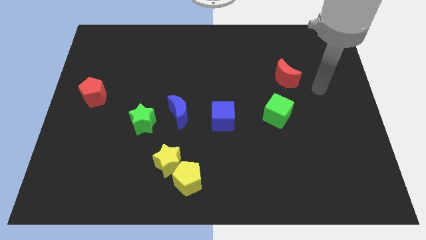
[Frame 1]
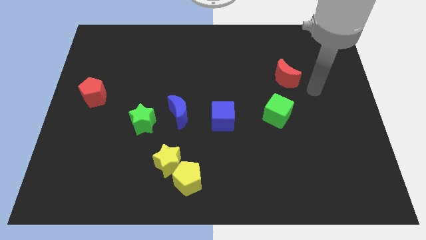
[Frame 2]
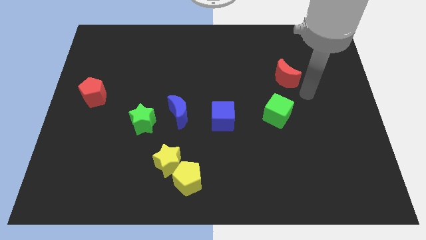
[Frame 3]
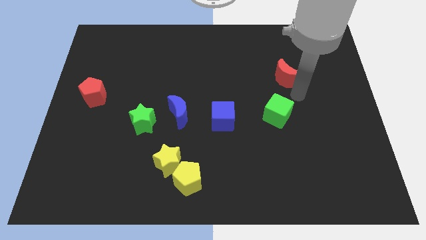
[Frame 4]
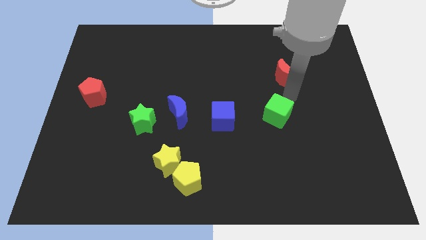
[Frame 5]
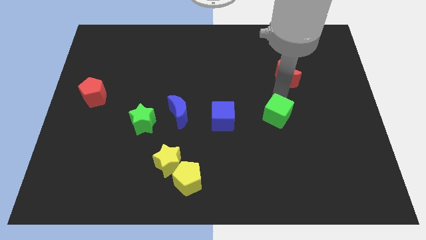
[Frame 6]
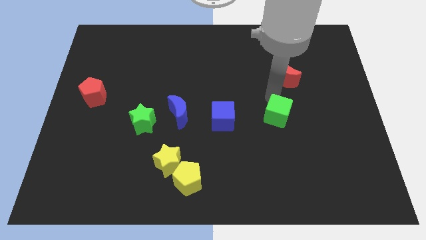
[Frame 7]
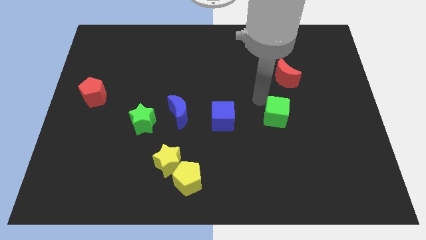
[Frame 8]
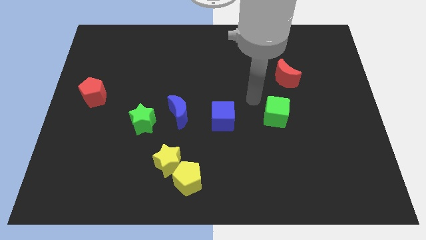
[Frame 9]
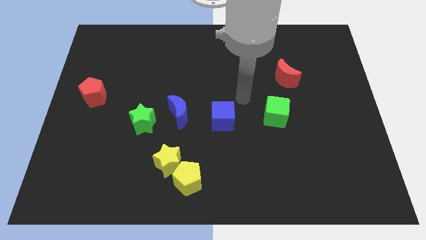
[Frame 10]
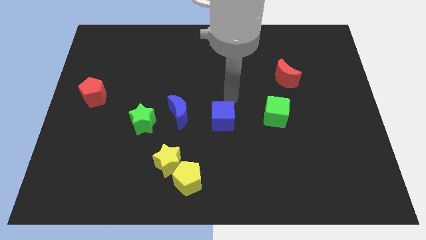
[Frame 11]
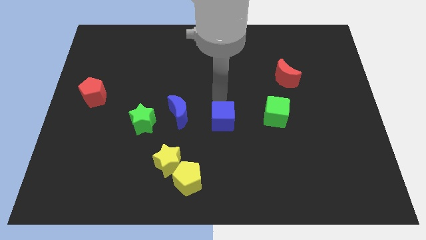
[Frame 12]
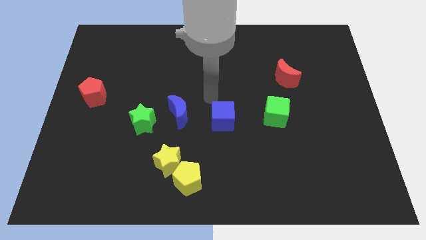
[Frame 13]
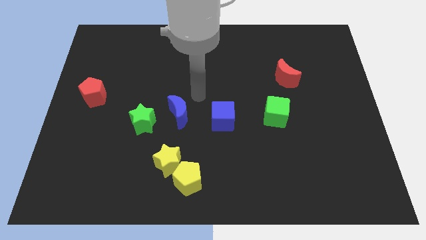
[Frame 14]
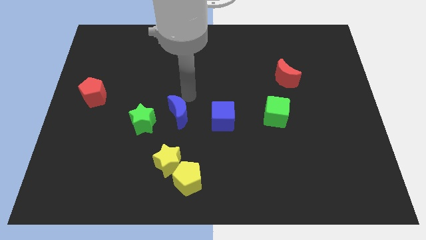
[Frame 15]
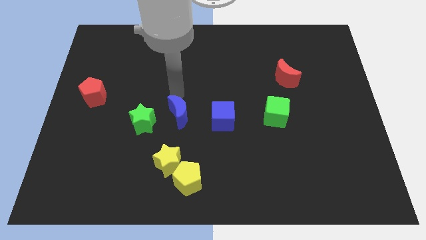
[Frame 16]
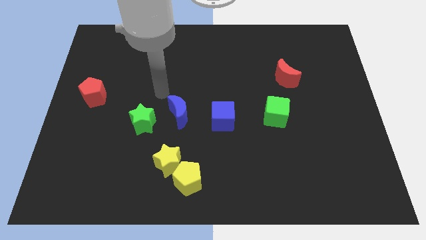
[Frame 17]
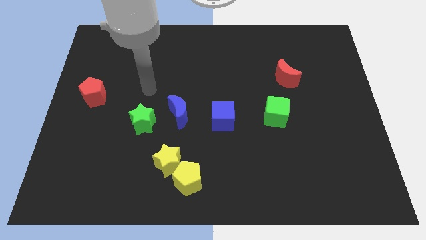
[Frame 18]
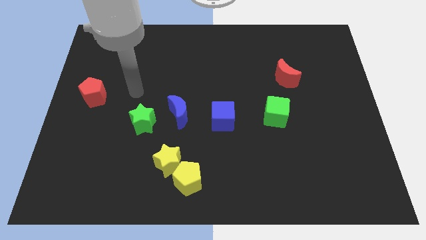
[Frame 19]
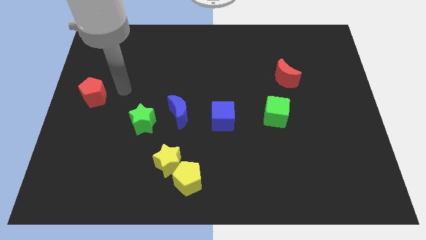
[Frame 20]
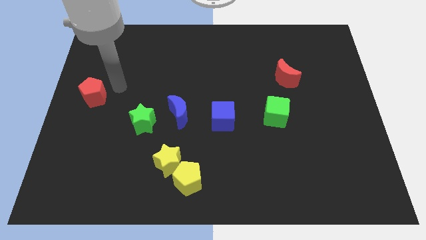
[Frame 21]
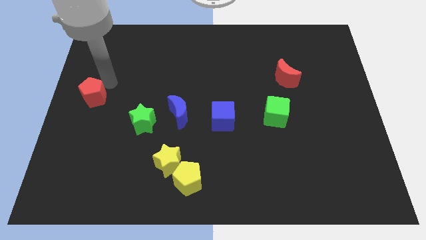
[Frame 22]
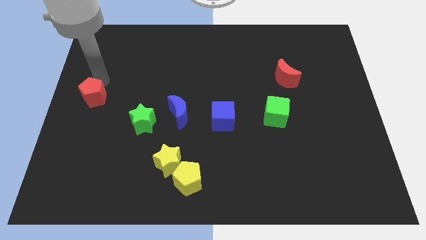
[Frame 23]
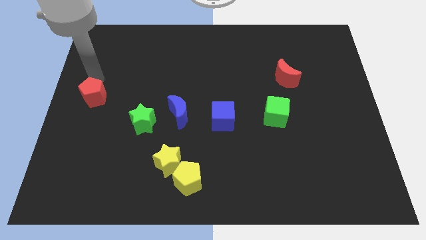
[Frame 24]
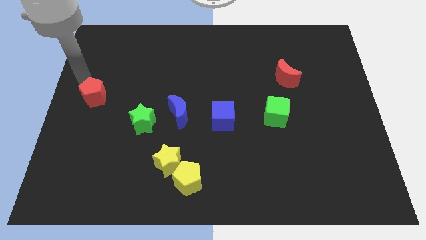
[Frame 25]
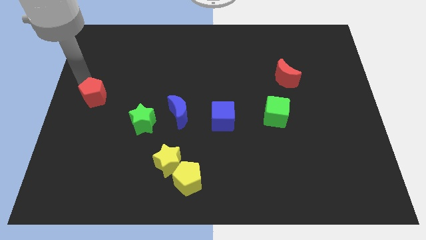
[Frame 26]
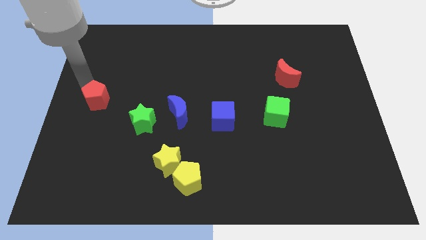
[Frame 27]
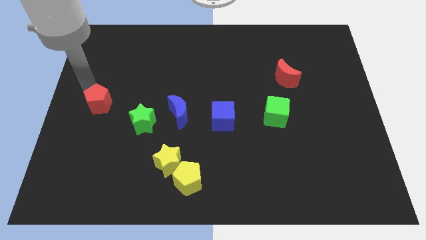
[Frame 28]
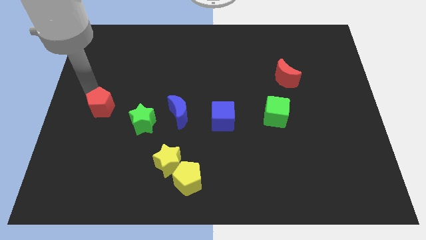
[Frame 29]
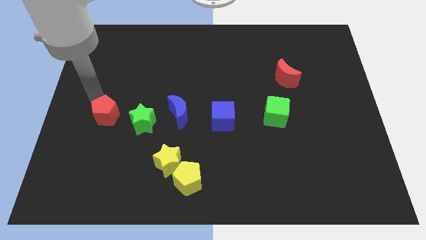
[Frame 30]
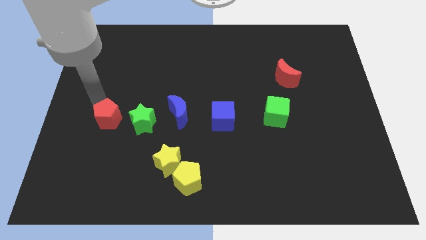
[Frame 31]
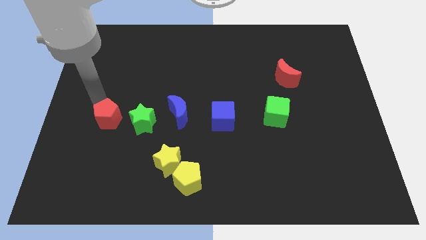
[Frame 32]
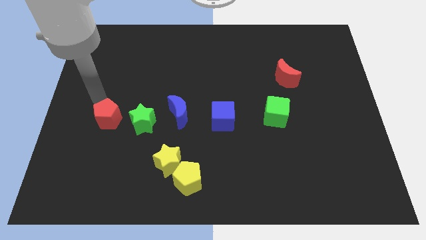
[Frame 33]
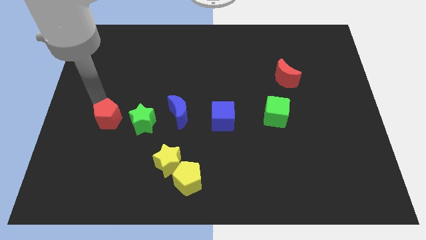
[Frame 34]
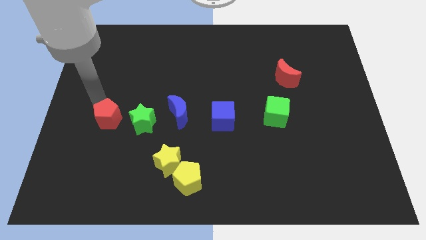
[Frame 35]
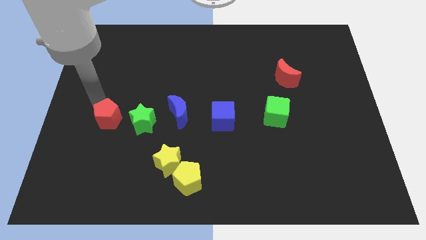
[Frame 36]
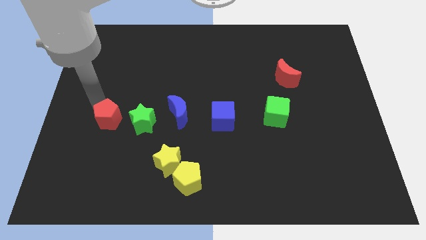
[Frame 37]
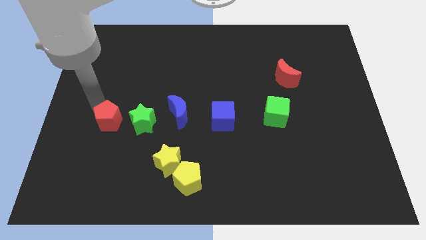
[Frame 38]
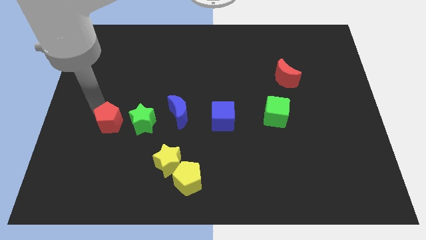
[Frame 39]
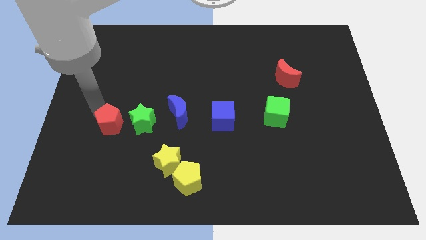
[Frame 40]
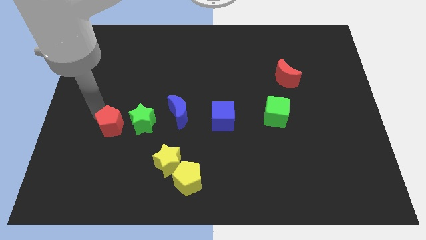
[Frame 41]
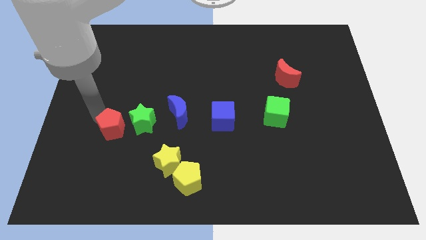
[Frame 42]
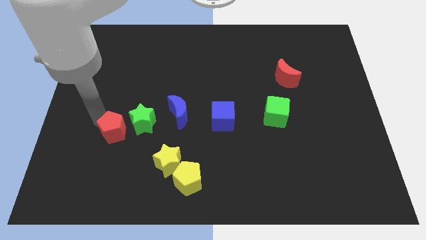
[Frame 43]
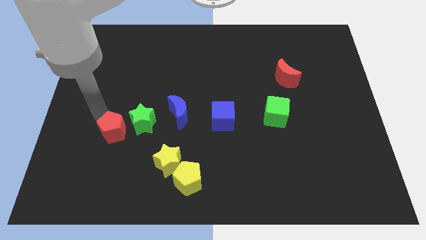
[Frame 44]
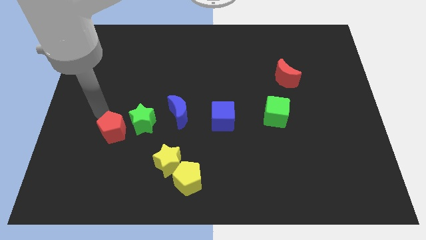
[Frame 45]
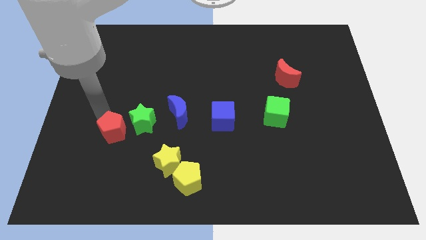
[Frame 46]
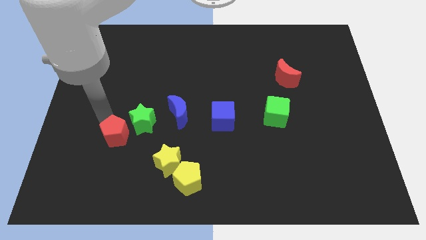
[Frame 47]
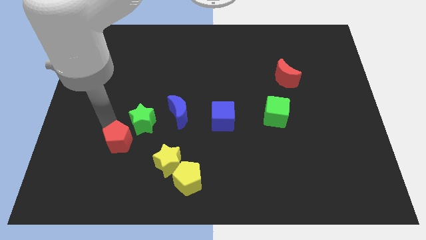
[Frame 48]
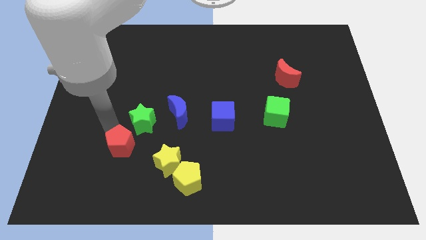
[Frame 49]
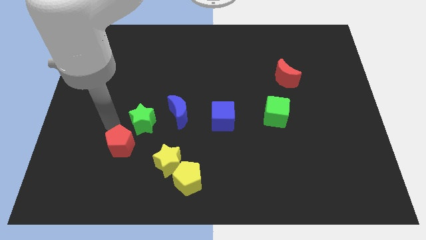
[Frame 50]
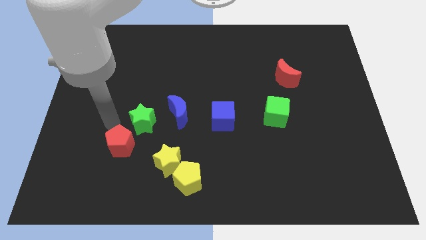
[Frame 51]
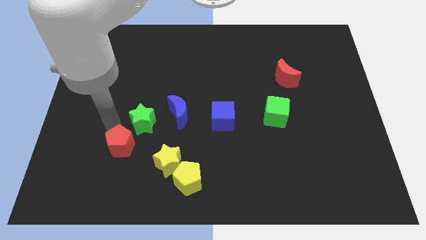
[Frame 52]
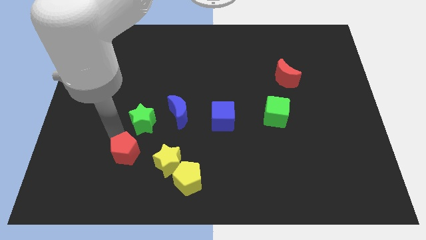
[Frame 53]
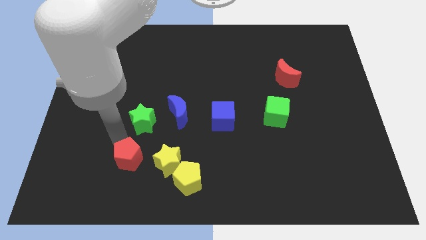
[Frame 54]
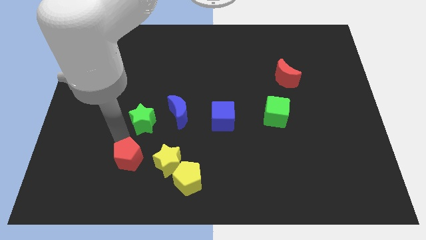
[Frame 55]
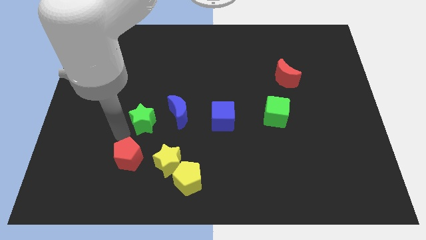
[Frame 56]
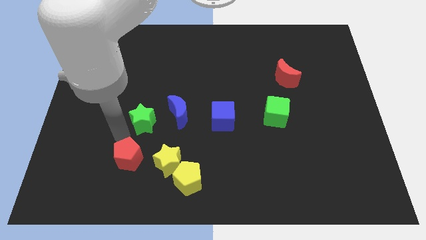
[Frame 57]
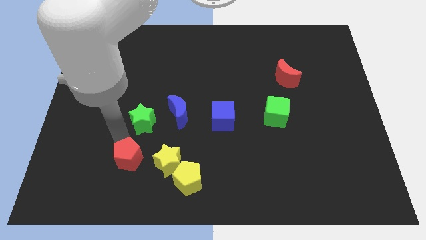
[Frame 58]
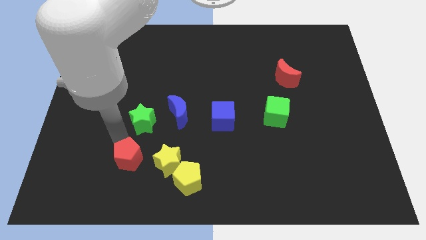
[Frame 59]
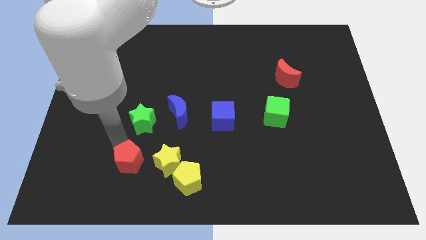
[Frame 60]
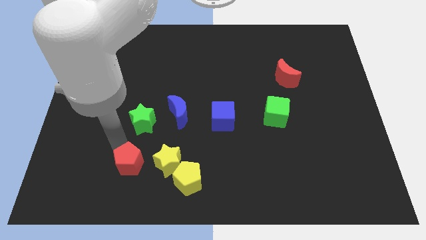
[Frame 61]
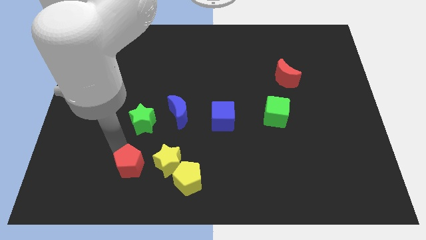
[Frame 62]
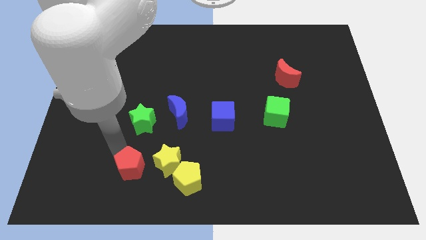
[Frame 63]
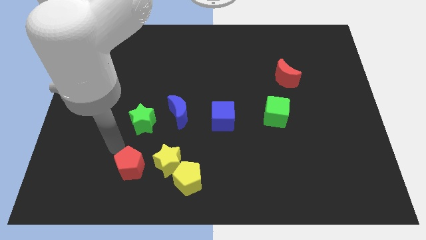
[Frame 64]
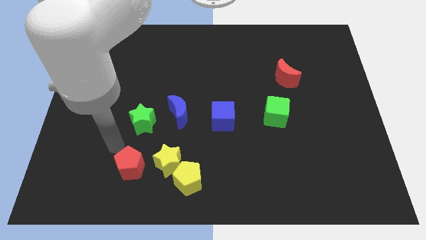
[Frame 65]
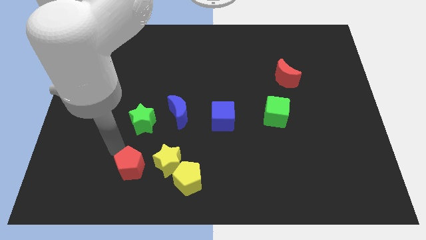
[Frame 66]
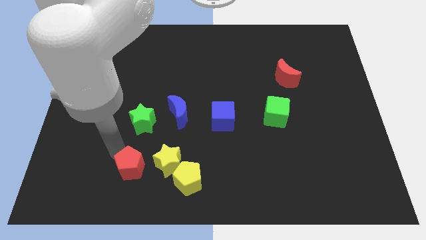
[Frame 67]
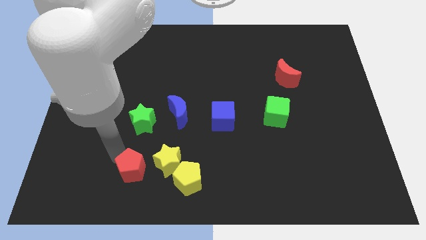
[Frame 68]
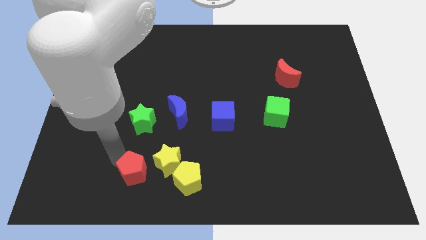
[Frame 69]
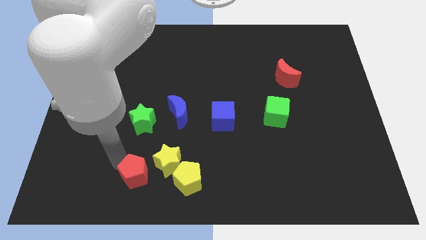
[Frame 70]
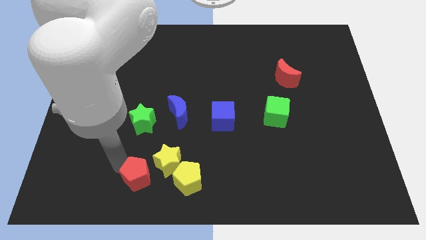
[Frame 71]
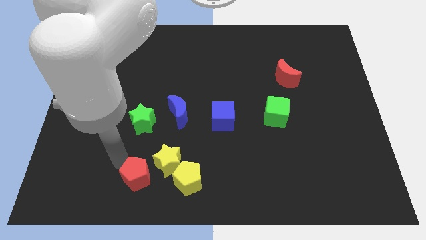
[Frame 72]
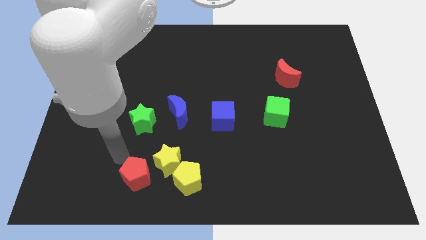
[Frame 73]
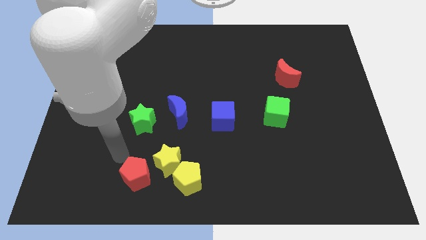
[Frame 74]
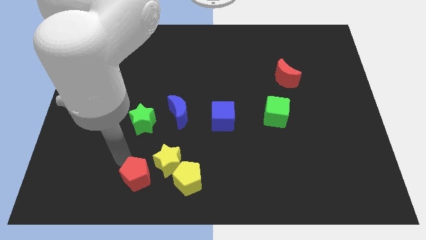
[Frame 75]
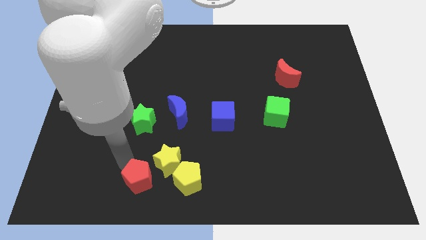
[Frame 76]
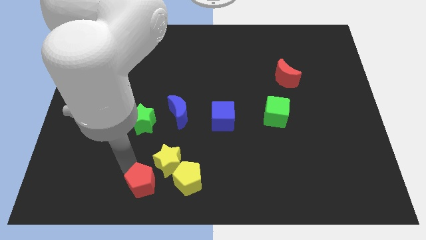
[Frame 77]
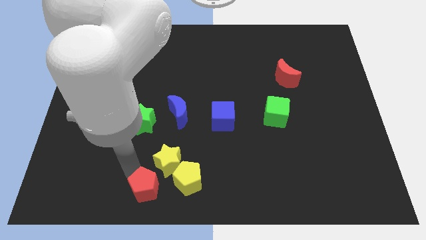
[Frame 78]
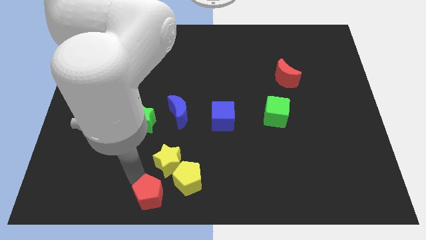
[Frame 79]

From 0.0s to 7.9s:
slide the red pentagon to the bottom
